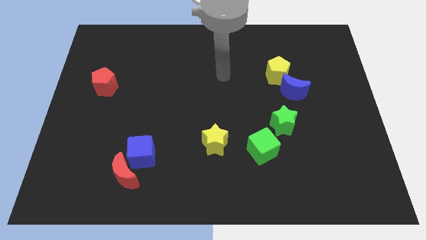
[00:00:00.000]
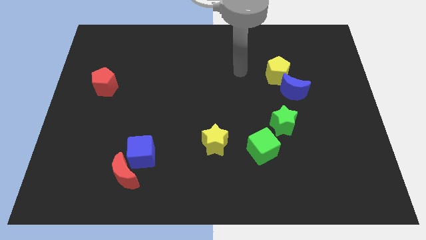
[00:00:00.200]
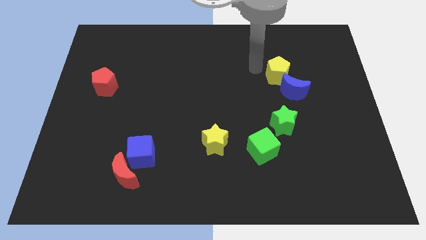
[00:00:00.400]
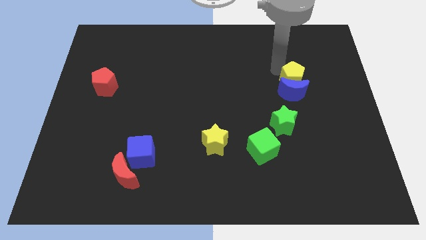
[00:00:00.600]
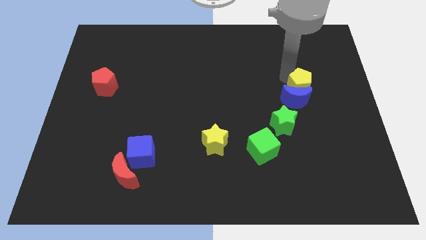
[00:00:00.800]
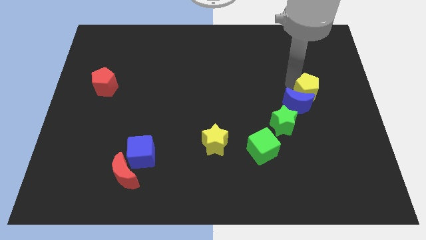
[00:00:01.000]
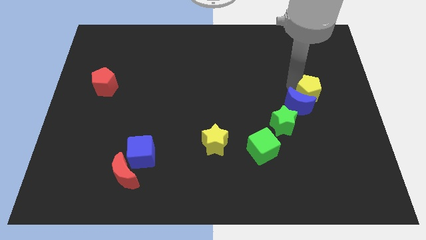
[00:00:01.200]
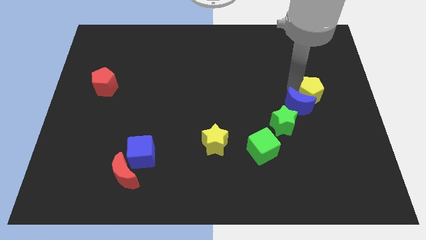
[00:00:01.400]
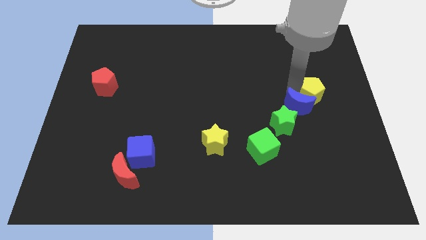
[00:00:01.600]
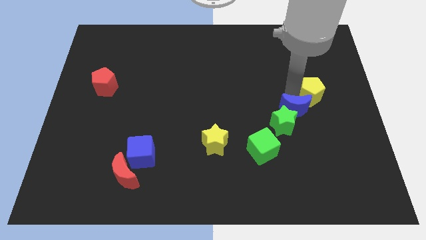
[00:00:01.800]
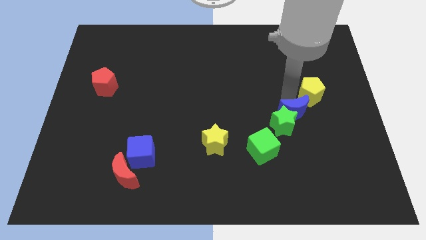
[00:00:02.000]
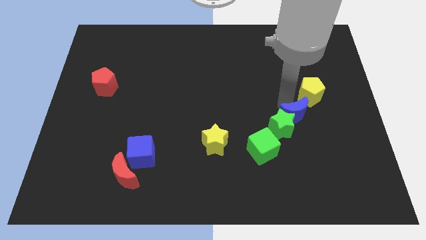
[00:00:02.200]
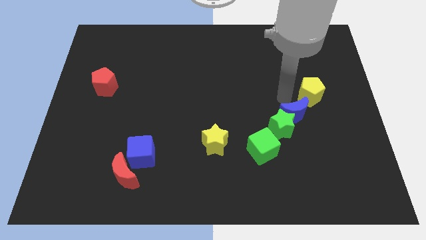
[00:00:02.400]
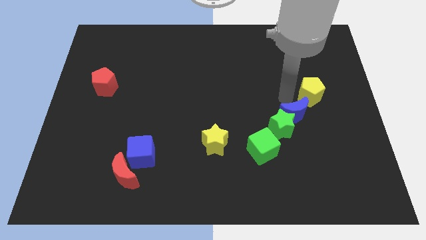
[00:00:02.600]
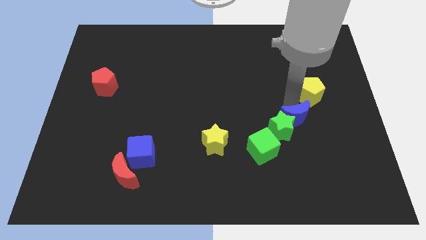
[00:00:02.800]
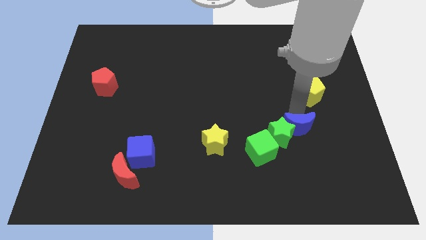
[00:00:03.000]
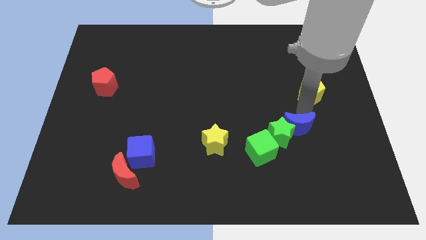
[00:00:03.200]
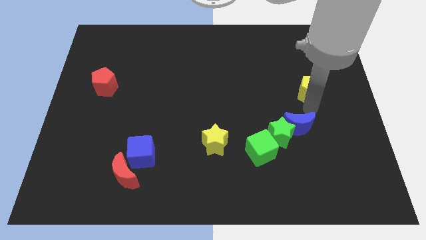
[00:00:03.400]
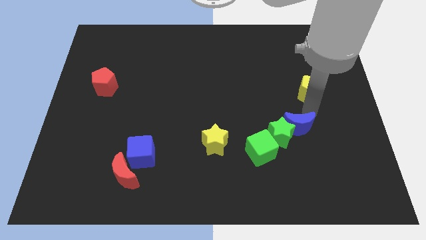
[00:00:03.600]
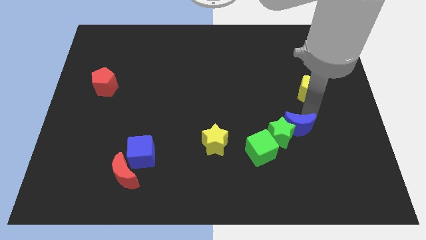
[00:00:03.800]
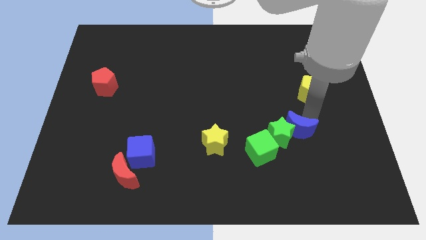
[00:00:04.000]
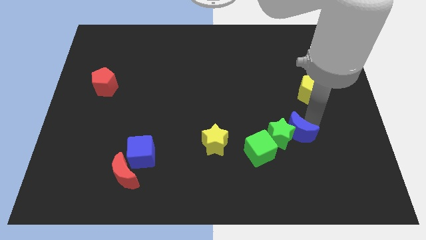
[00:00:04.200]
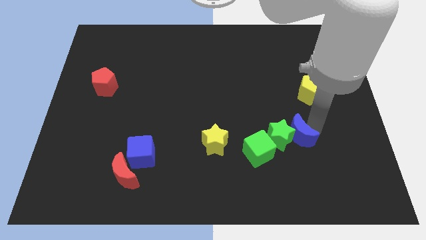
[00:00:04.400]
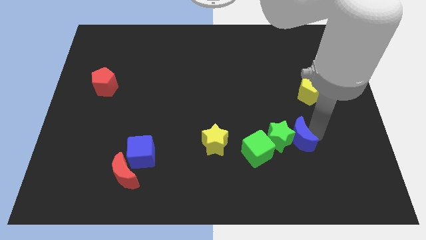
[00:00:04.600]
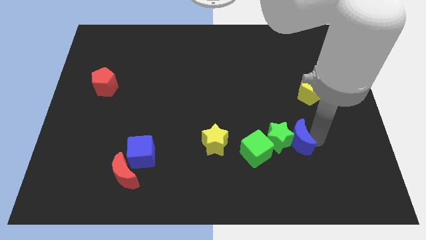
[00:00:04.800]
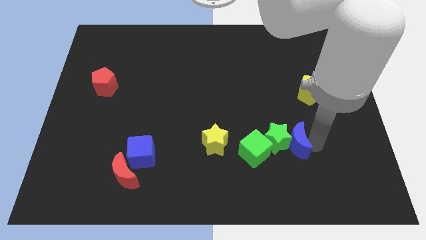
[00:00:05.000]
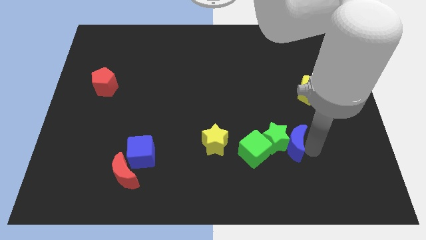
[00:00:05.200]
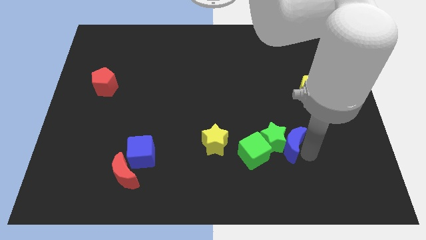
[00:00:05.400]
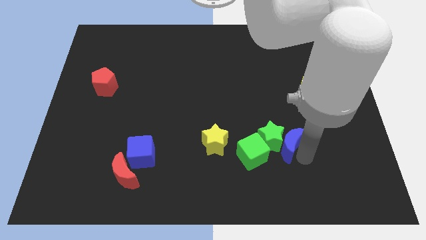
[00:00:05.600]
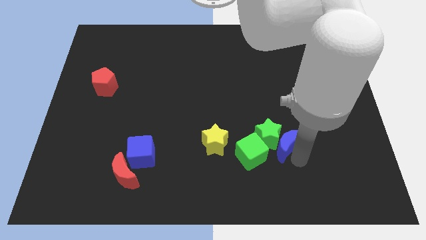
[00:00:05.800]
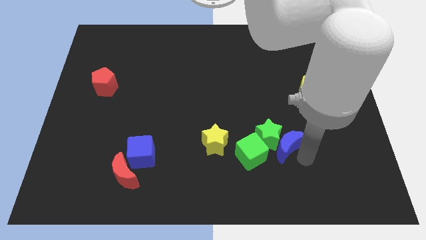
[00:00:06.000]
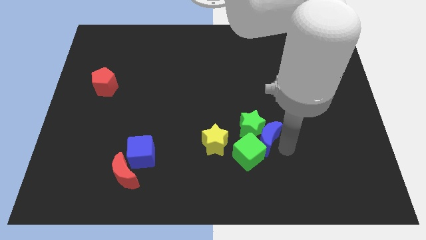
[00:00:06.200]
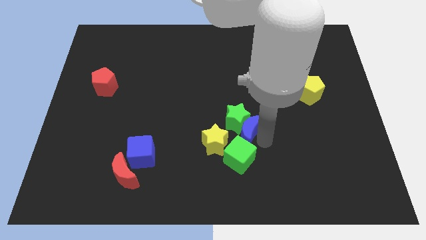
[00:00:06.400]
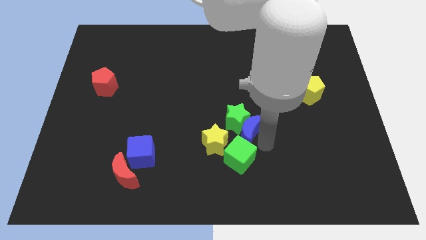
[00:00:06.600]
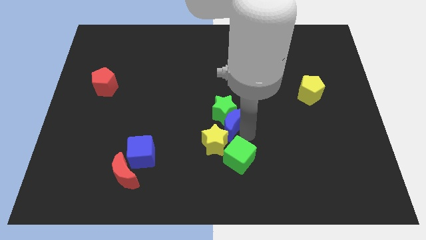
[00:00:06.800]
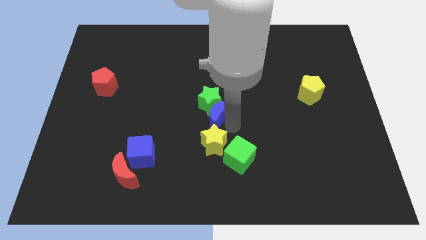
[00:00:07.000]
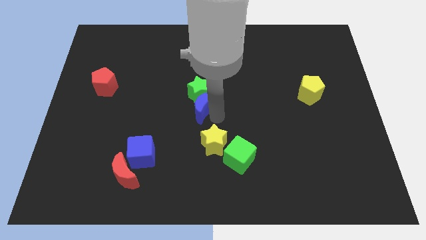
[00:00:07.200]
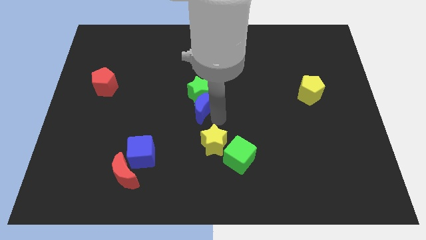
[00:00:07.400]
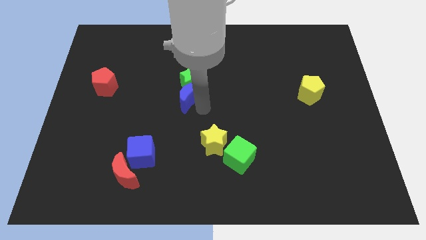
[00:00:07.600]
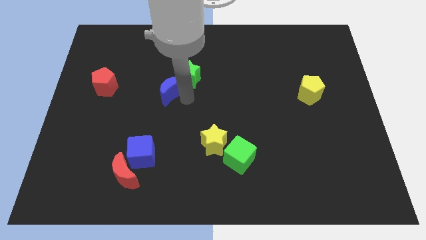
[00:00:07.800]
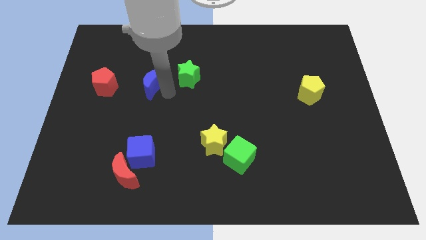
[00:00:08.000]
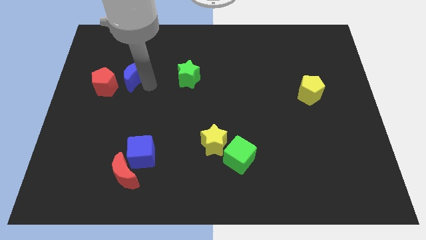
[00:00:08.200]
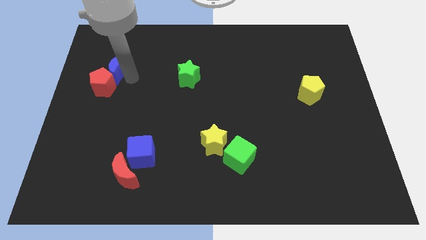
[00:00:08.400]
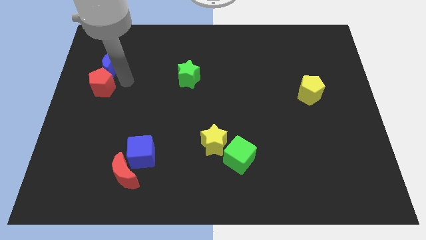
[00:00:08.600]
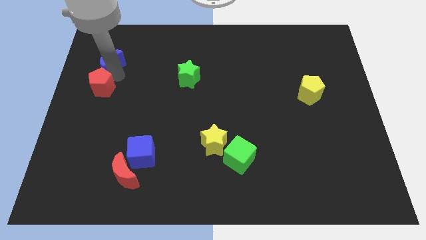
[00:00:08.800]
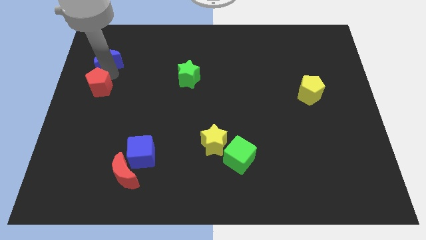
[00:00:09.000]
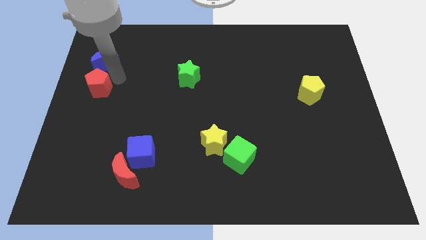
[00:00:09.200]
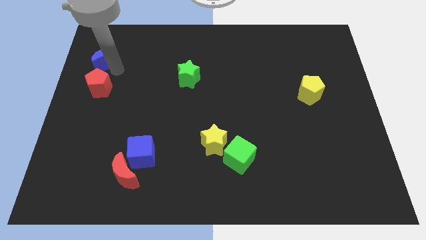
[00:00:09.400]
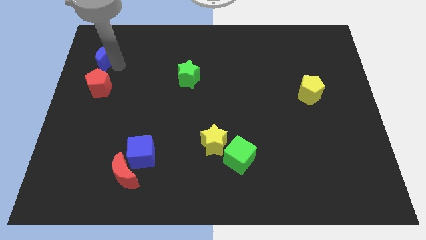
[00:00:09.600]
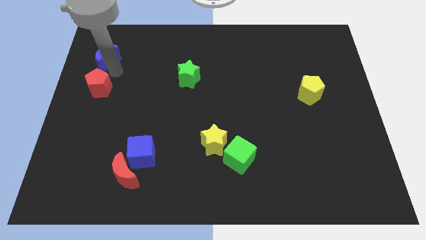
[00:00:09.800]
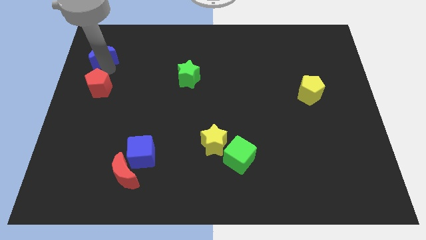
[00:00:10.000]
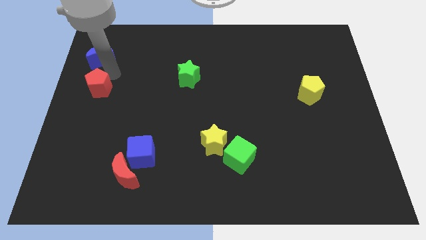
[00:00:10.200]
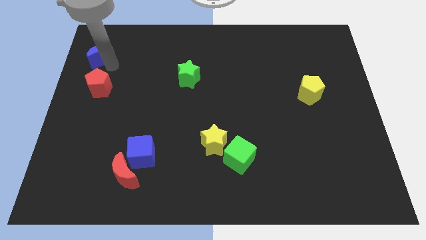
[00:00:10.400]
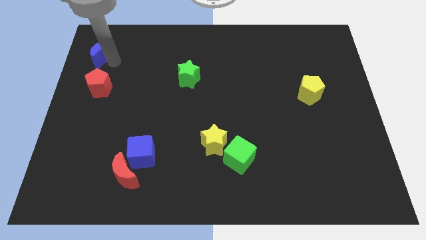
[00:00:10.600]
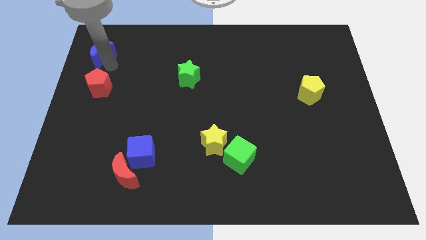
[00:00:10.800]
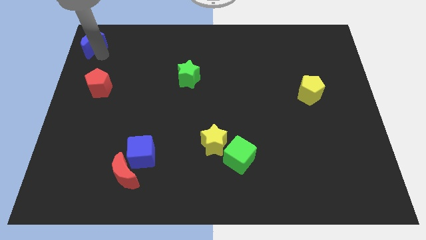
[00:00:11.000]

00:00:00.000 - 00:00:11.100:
push the blue moon to the top left

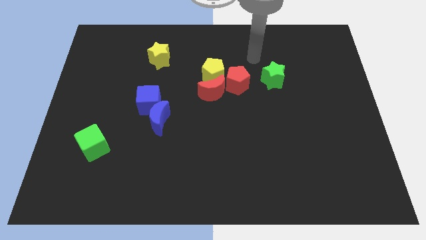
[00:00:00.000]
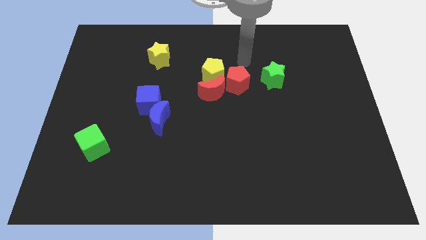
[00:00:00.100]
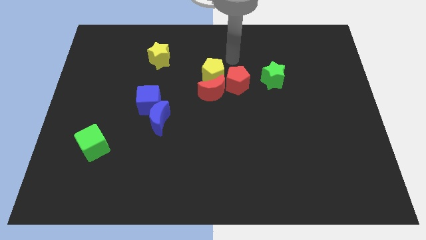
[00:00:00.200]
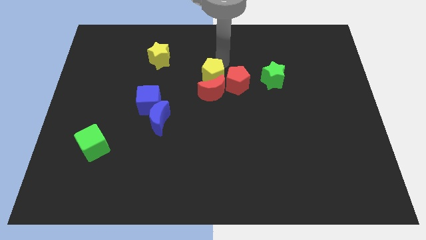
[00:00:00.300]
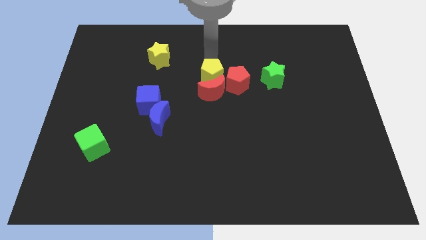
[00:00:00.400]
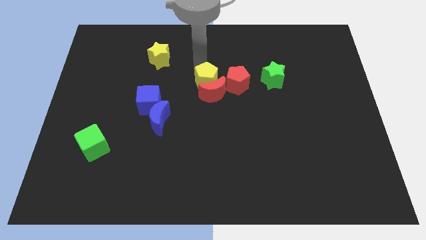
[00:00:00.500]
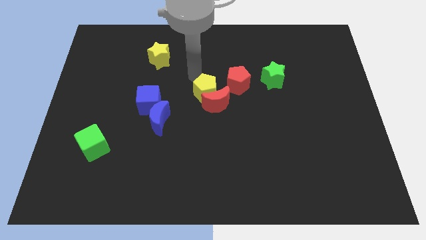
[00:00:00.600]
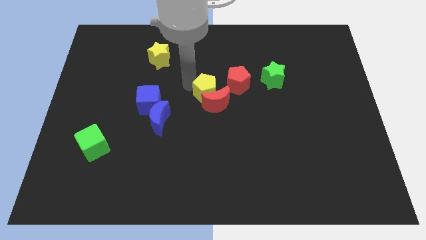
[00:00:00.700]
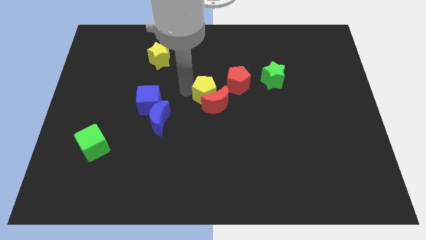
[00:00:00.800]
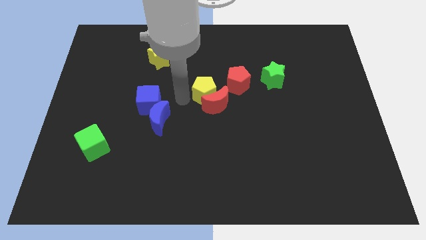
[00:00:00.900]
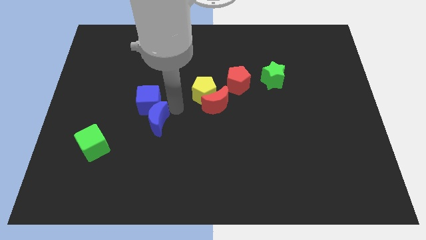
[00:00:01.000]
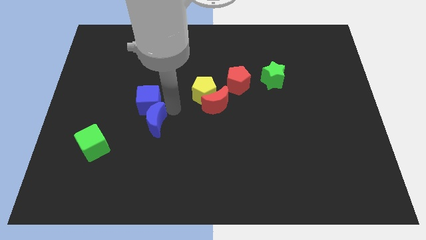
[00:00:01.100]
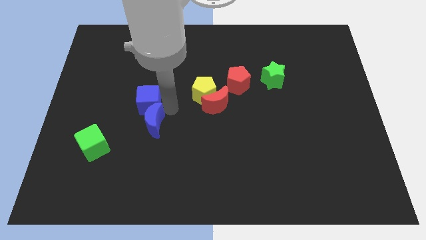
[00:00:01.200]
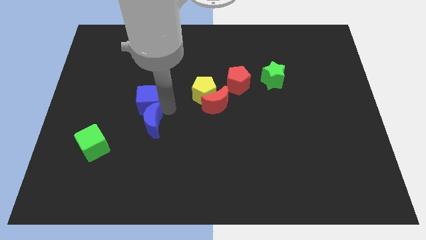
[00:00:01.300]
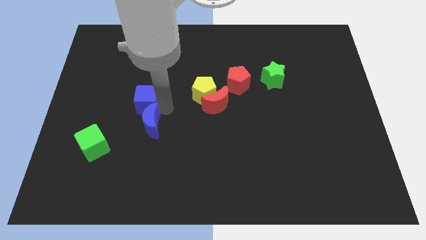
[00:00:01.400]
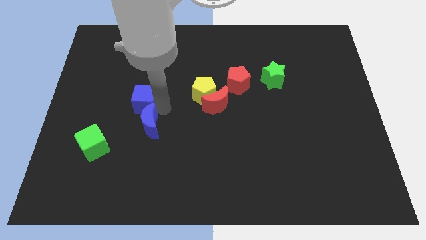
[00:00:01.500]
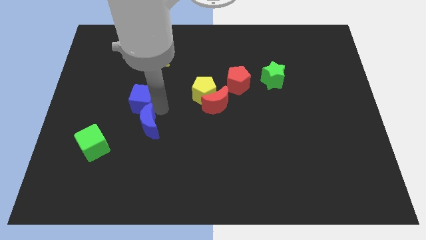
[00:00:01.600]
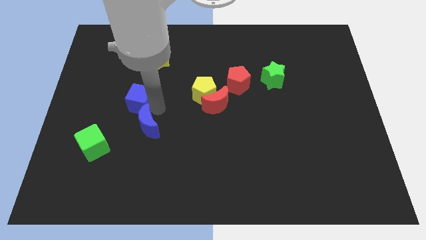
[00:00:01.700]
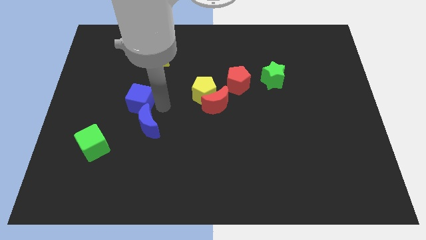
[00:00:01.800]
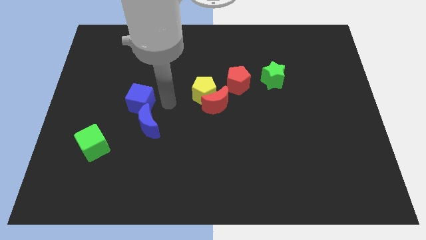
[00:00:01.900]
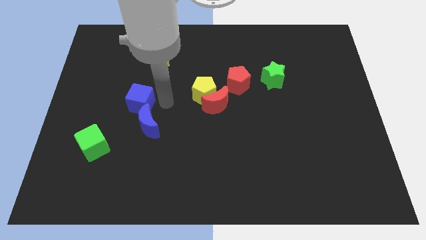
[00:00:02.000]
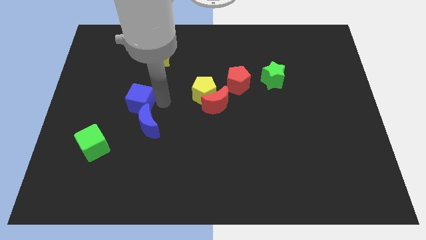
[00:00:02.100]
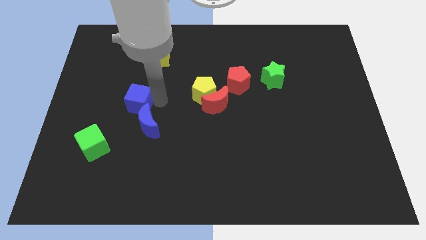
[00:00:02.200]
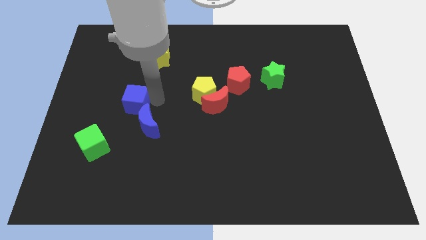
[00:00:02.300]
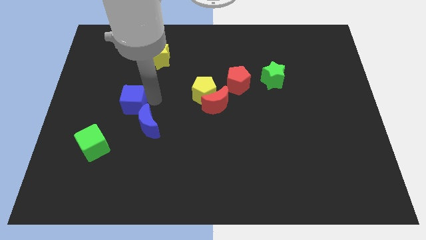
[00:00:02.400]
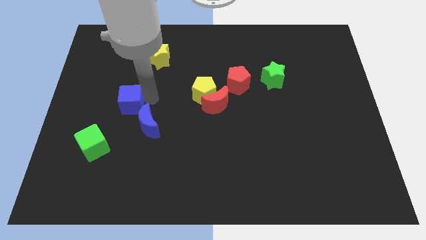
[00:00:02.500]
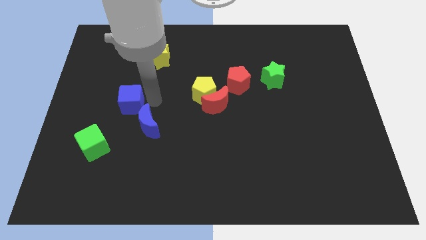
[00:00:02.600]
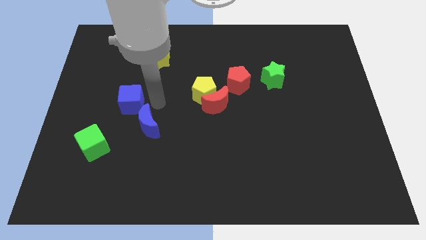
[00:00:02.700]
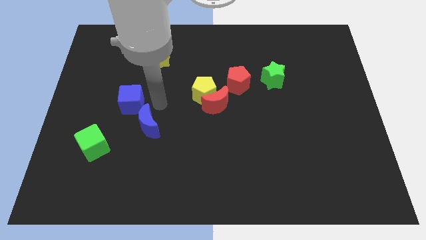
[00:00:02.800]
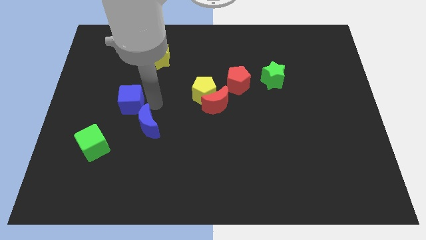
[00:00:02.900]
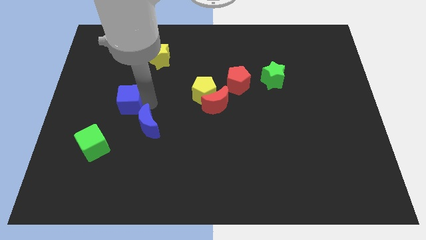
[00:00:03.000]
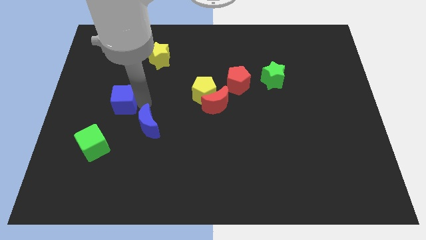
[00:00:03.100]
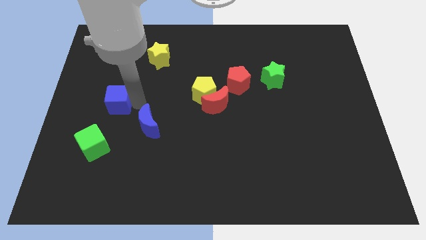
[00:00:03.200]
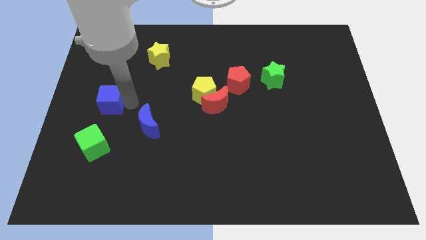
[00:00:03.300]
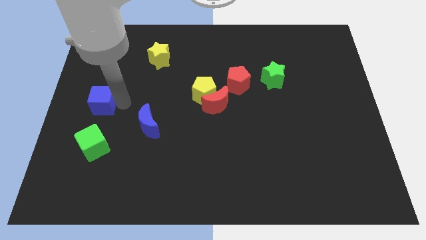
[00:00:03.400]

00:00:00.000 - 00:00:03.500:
put the blue cube to the left side of the board
